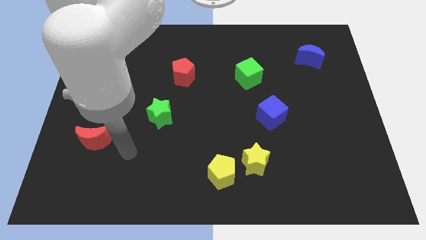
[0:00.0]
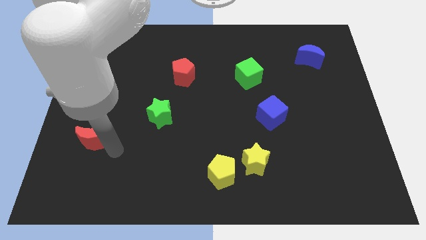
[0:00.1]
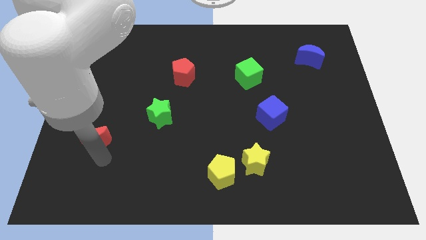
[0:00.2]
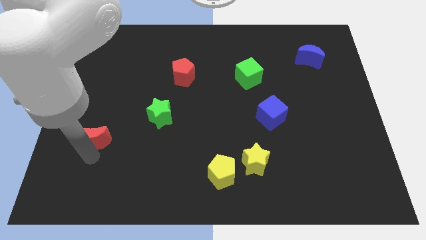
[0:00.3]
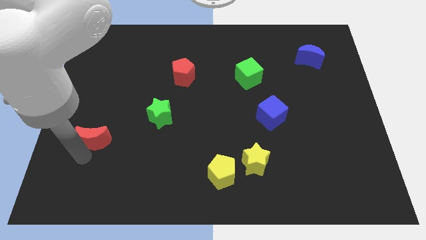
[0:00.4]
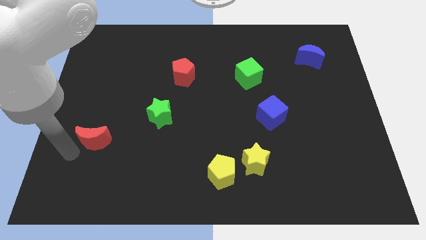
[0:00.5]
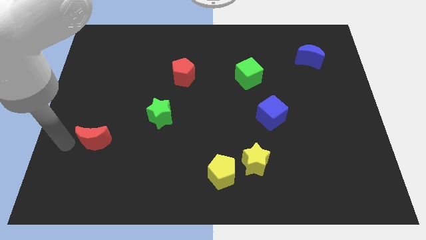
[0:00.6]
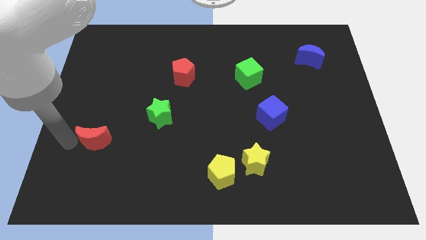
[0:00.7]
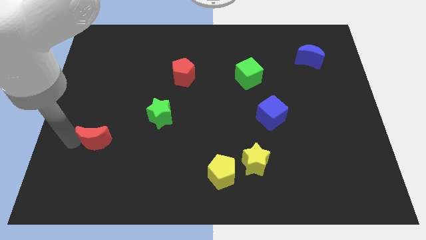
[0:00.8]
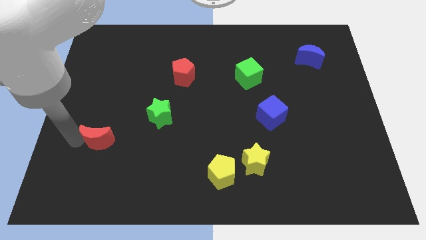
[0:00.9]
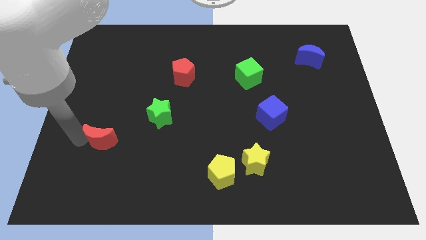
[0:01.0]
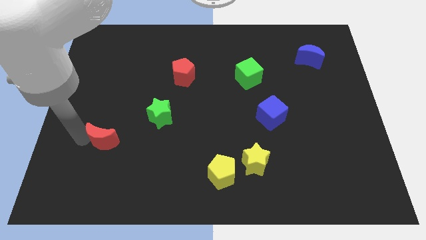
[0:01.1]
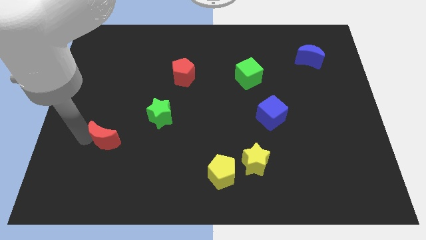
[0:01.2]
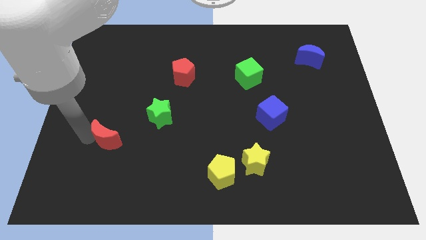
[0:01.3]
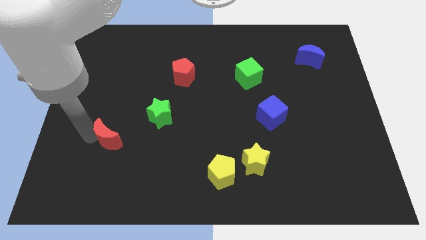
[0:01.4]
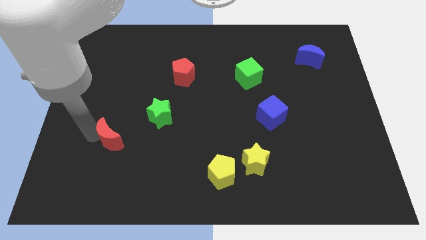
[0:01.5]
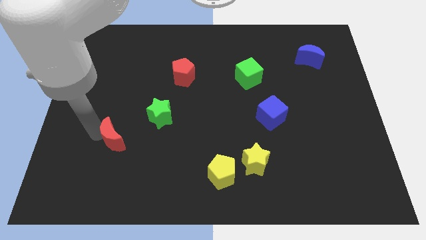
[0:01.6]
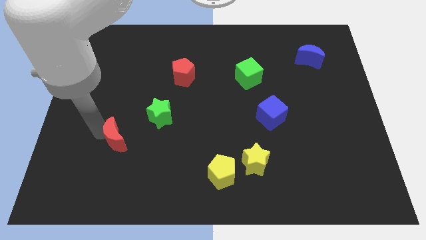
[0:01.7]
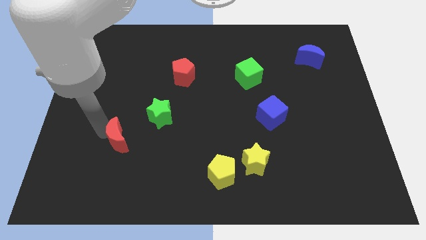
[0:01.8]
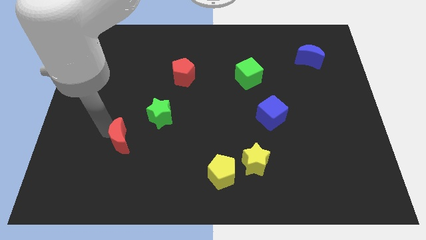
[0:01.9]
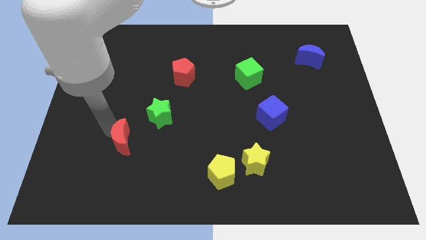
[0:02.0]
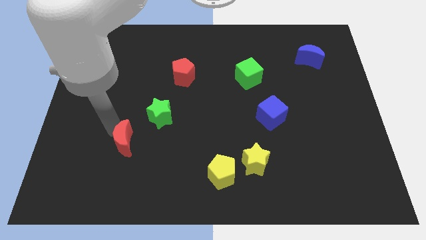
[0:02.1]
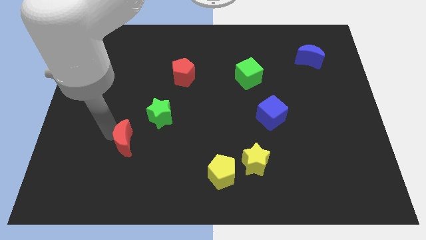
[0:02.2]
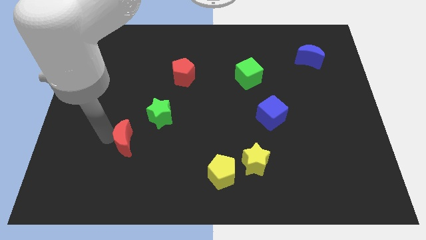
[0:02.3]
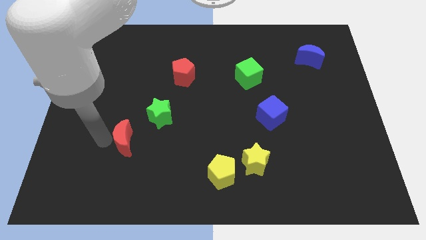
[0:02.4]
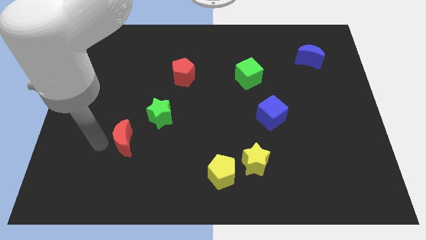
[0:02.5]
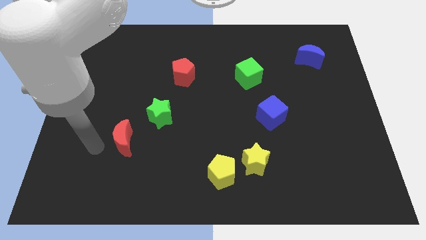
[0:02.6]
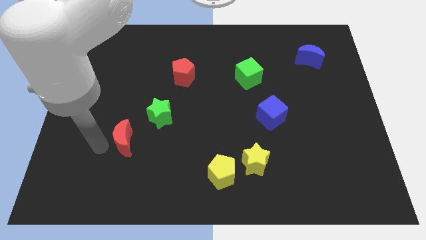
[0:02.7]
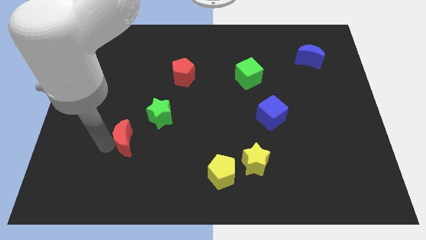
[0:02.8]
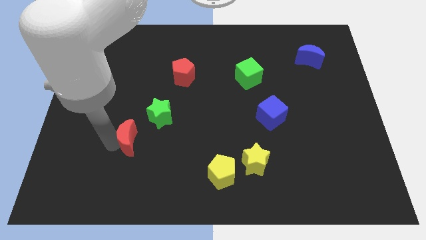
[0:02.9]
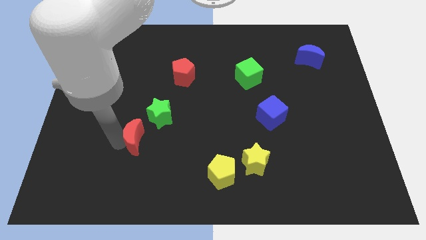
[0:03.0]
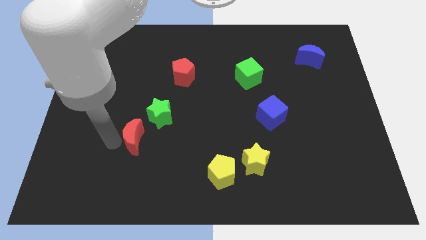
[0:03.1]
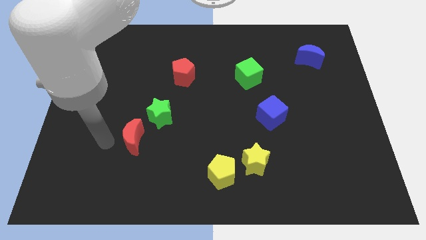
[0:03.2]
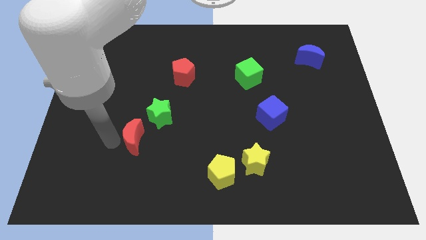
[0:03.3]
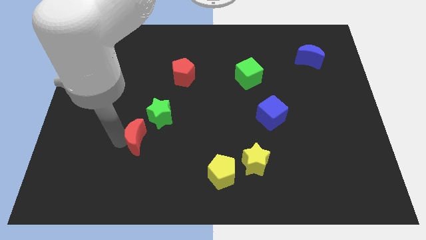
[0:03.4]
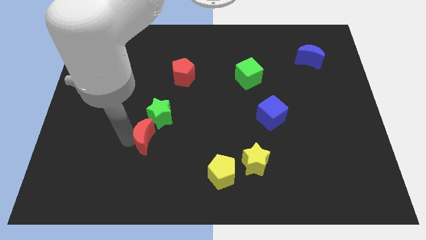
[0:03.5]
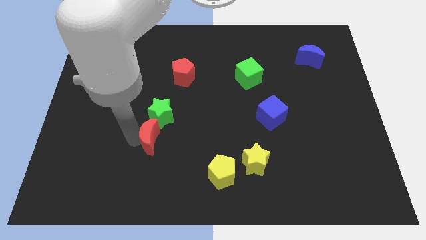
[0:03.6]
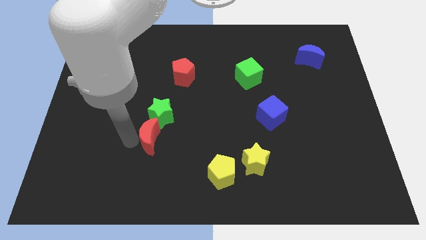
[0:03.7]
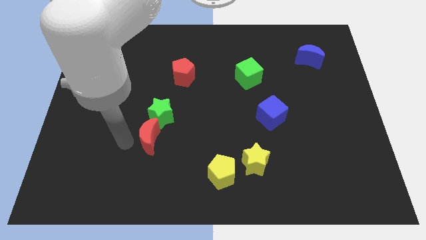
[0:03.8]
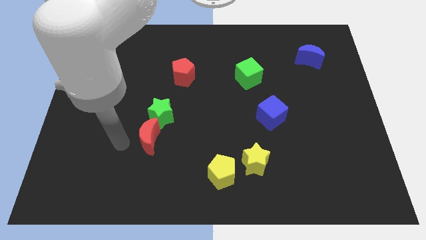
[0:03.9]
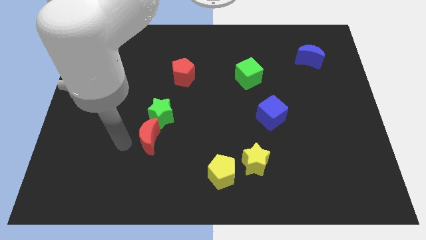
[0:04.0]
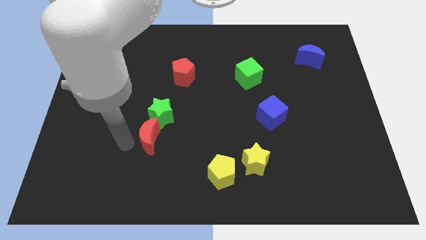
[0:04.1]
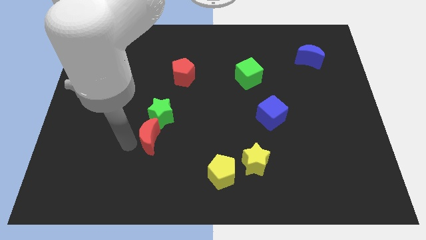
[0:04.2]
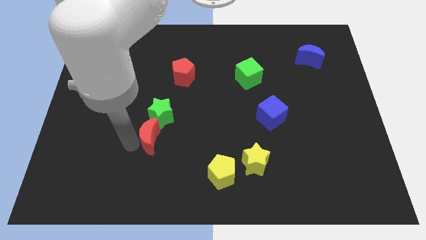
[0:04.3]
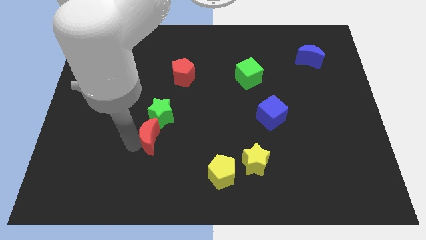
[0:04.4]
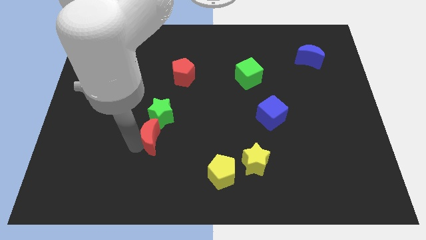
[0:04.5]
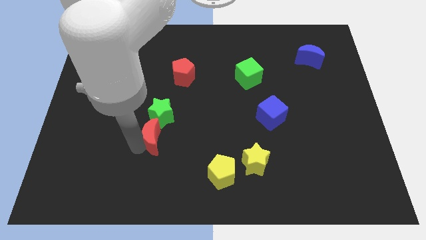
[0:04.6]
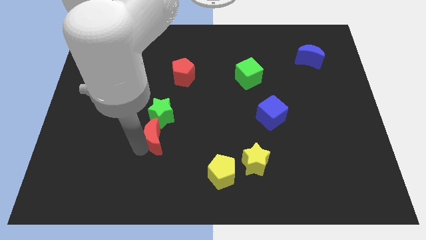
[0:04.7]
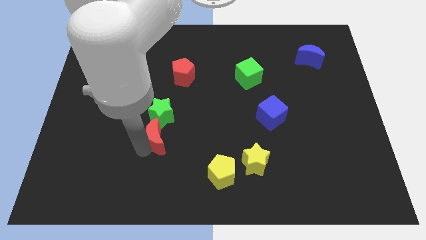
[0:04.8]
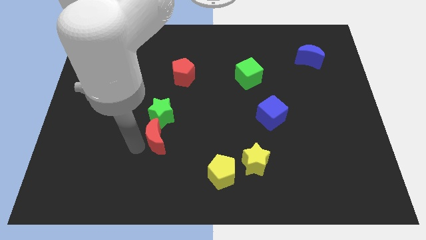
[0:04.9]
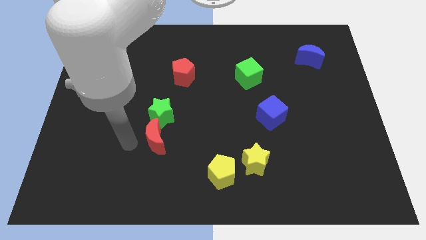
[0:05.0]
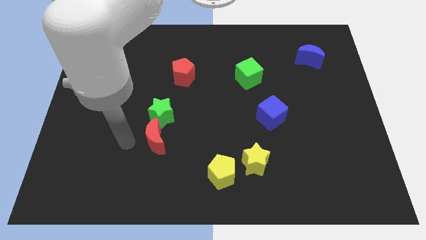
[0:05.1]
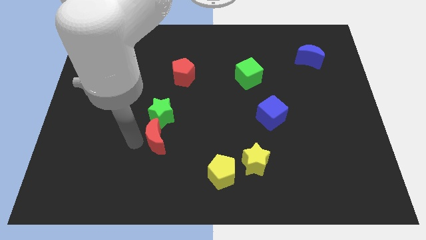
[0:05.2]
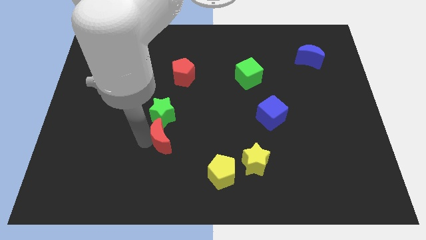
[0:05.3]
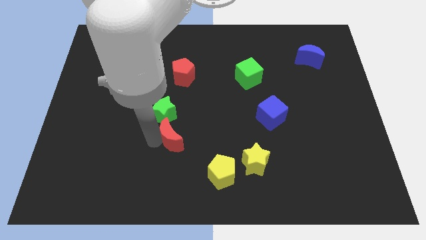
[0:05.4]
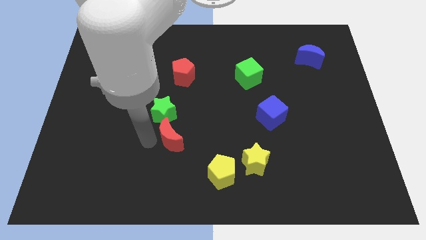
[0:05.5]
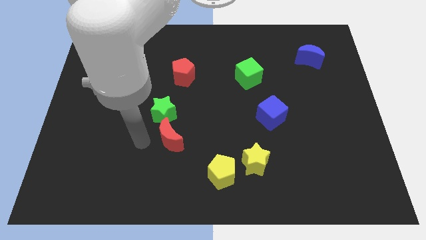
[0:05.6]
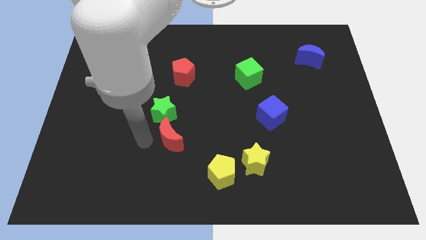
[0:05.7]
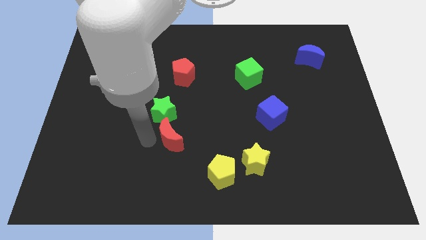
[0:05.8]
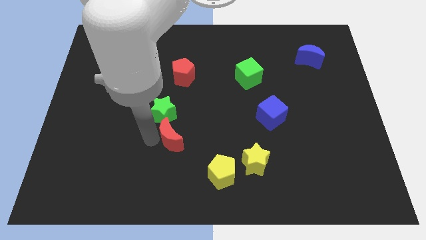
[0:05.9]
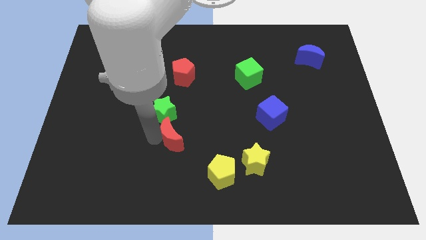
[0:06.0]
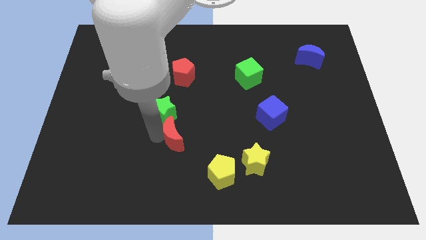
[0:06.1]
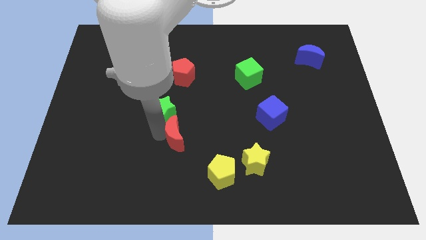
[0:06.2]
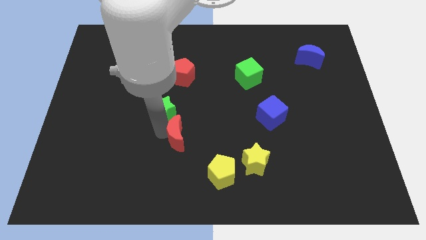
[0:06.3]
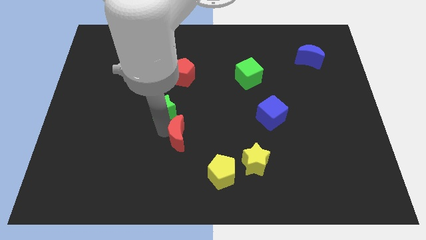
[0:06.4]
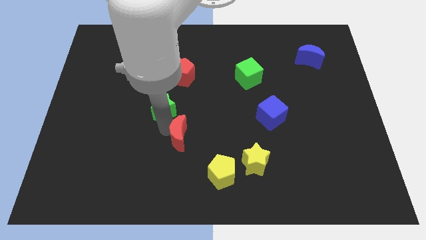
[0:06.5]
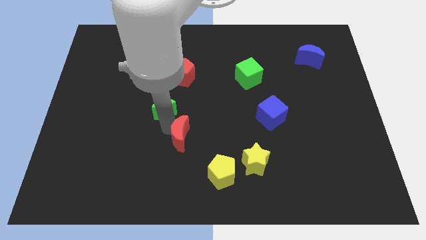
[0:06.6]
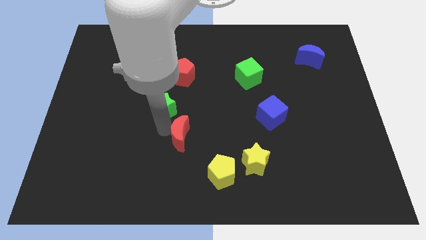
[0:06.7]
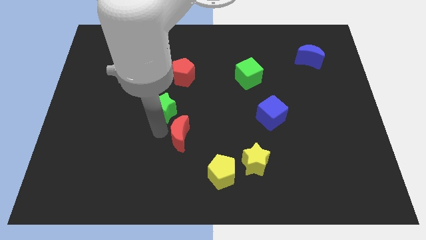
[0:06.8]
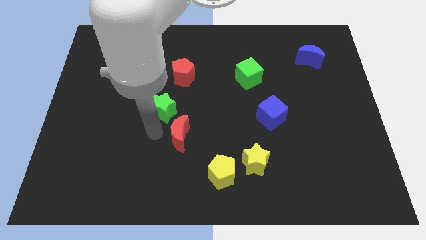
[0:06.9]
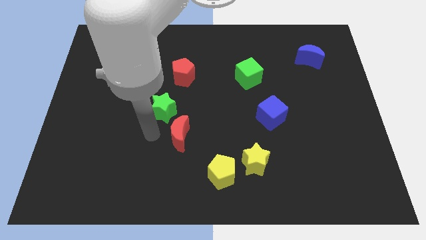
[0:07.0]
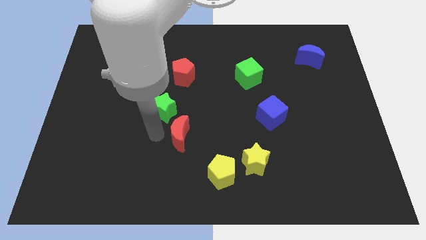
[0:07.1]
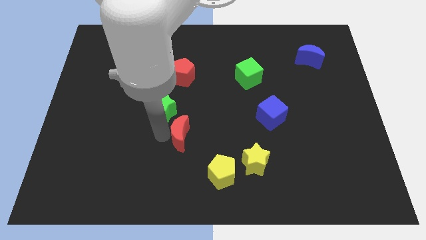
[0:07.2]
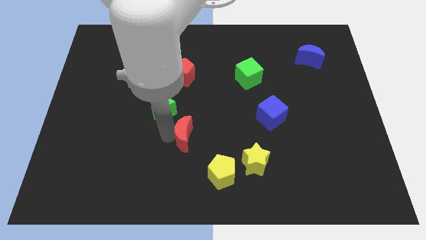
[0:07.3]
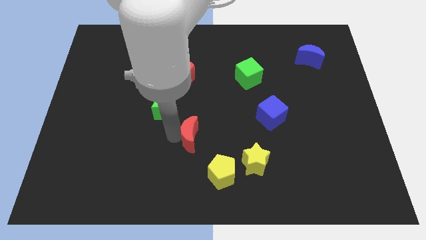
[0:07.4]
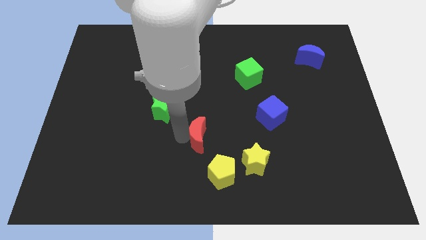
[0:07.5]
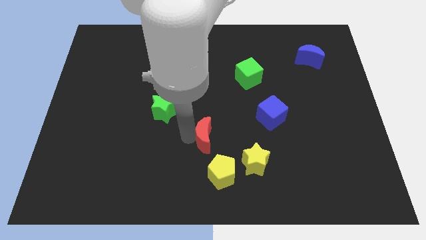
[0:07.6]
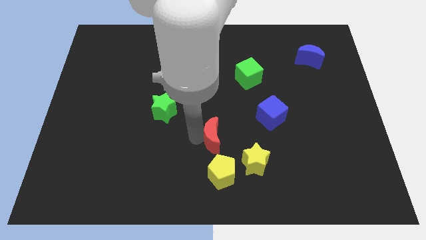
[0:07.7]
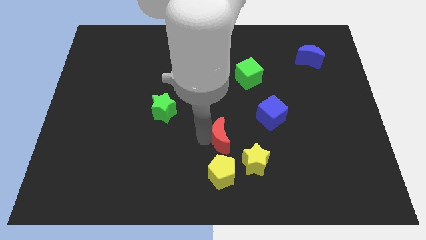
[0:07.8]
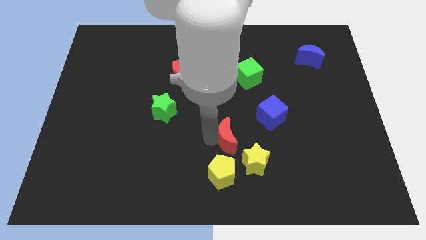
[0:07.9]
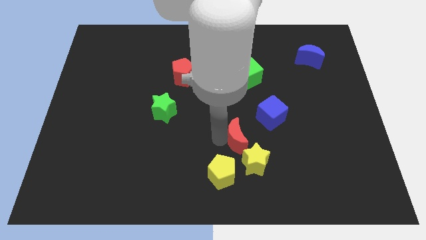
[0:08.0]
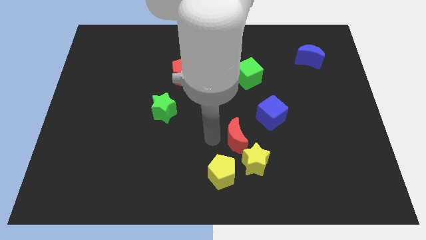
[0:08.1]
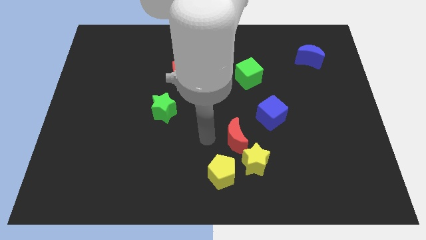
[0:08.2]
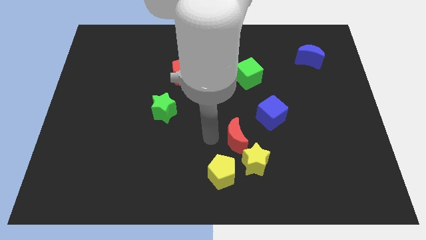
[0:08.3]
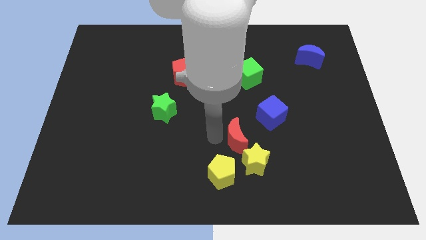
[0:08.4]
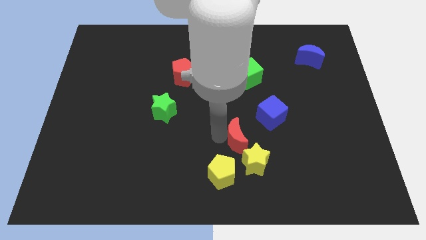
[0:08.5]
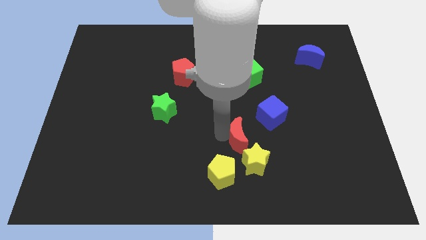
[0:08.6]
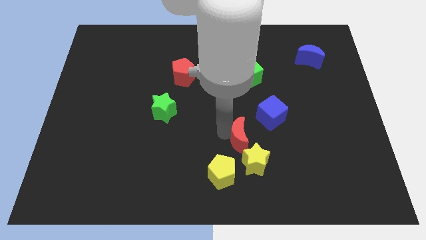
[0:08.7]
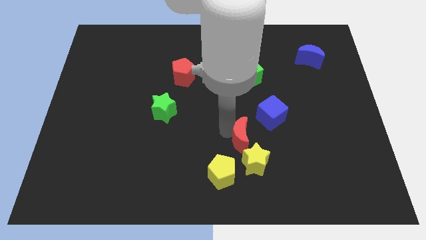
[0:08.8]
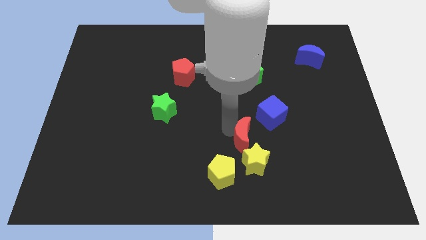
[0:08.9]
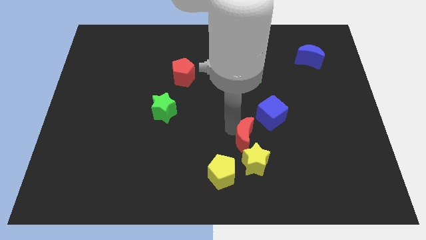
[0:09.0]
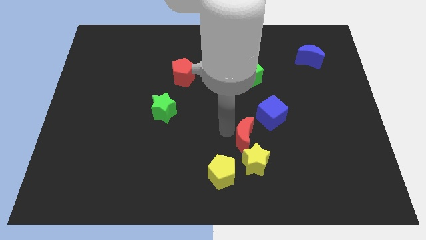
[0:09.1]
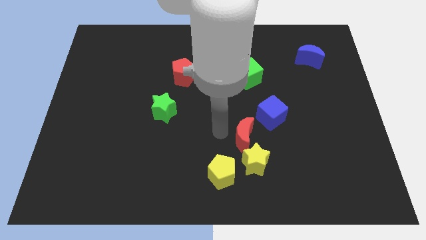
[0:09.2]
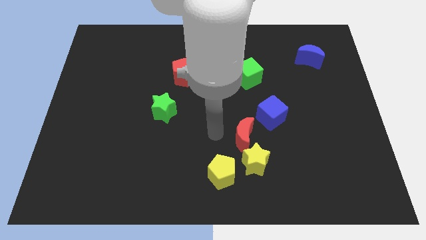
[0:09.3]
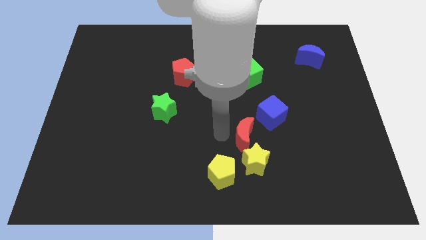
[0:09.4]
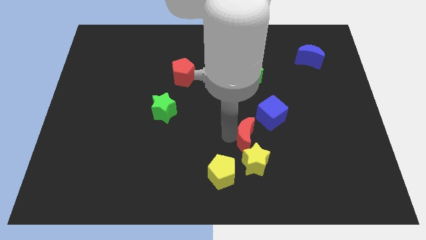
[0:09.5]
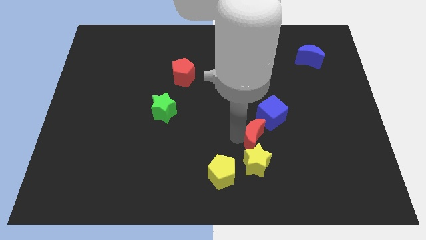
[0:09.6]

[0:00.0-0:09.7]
move the red moon to the top right side of the yellow star
